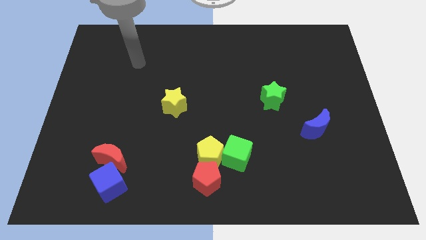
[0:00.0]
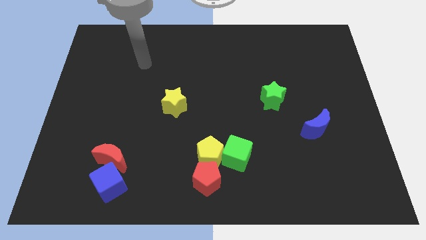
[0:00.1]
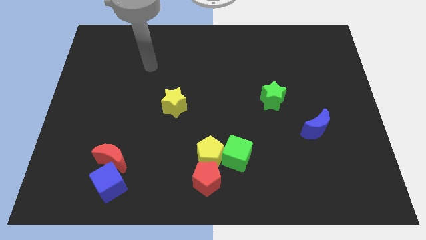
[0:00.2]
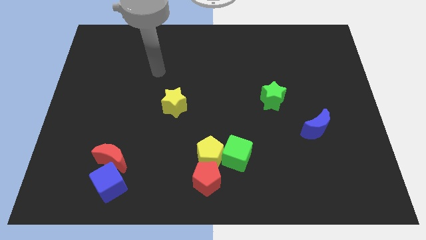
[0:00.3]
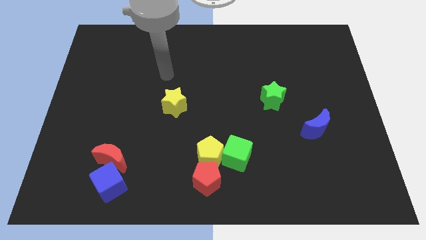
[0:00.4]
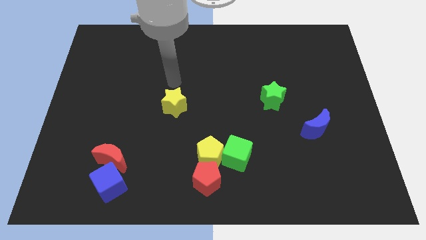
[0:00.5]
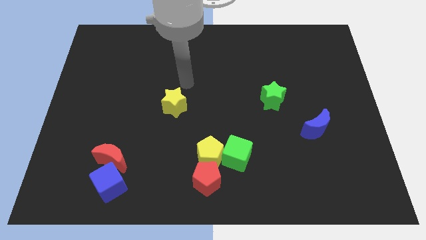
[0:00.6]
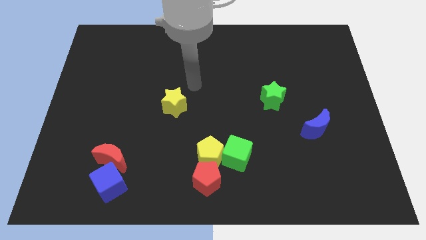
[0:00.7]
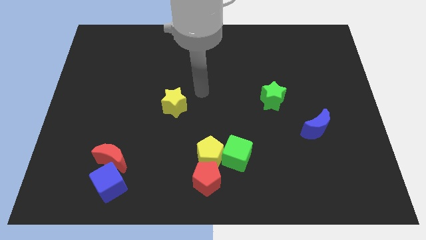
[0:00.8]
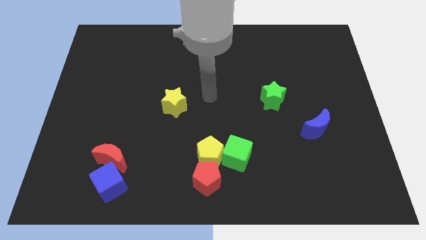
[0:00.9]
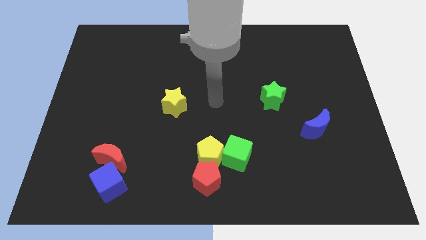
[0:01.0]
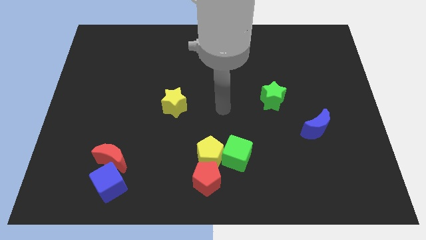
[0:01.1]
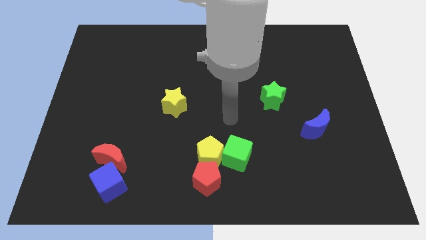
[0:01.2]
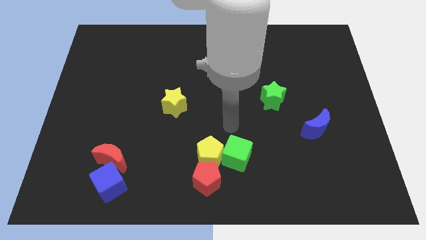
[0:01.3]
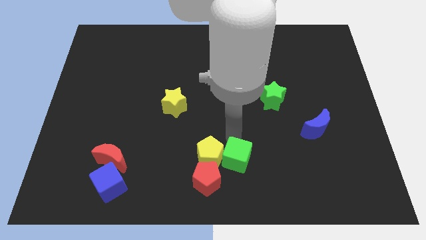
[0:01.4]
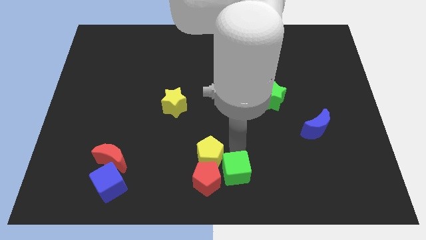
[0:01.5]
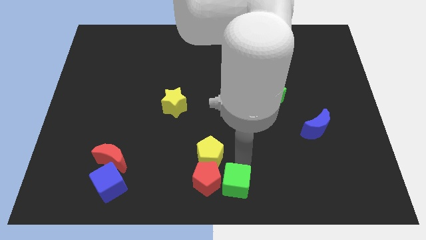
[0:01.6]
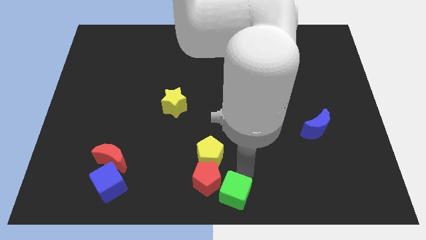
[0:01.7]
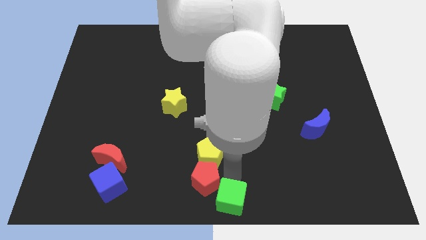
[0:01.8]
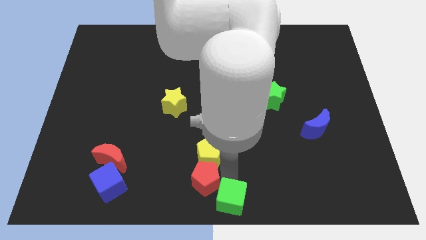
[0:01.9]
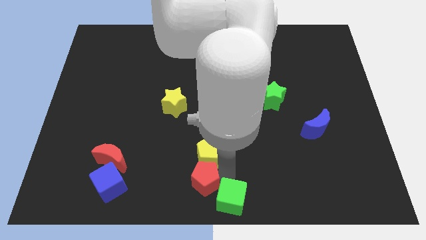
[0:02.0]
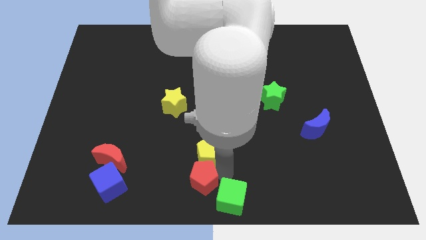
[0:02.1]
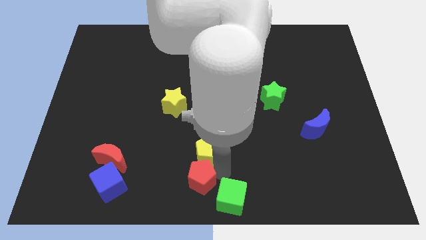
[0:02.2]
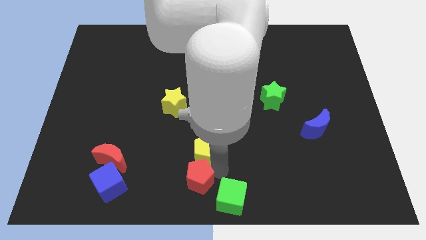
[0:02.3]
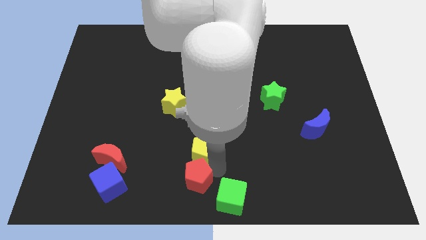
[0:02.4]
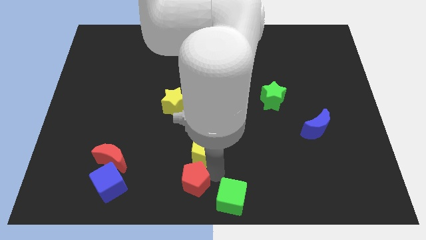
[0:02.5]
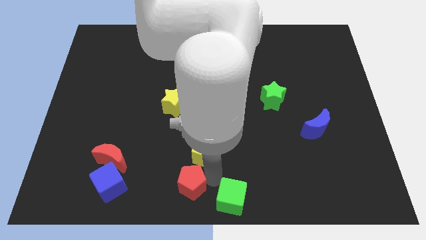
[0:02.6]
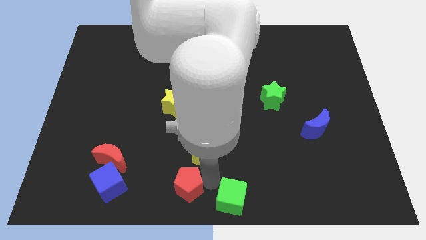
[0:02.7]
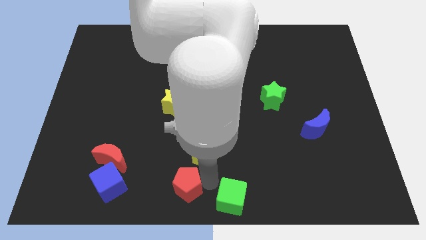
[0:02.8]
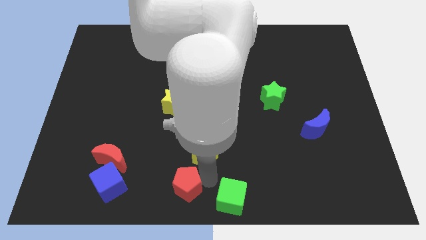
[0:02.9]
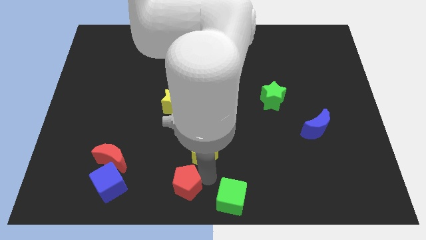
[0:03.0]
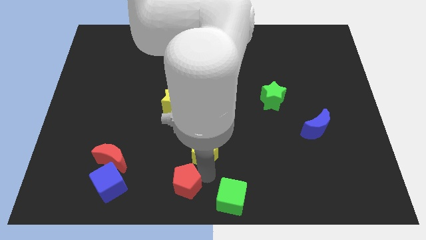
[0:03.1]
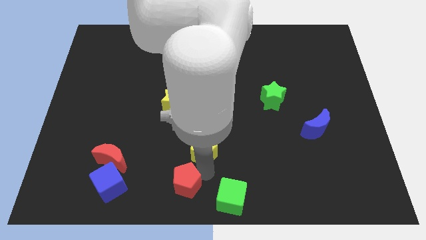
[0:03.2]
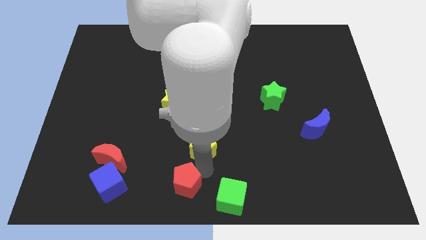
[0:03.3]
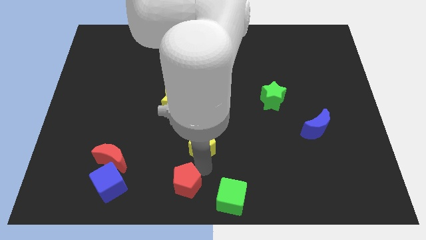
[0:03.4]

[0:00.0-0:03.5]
move the yellow pentagon away from the green cube and red pentagon

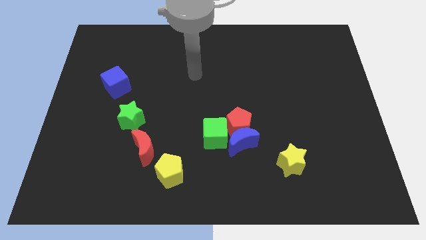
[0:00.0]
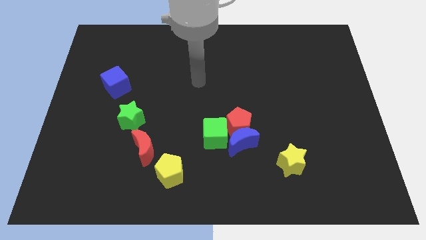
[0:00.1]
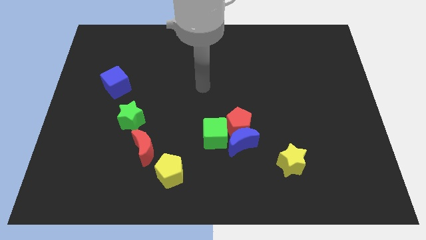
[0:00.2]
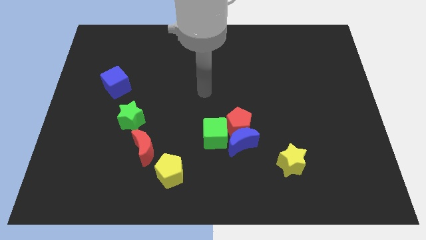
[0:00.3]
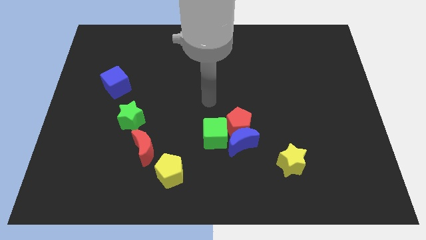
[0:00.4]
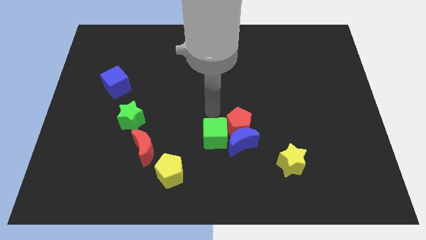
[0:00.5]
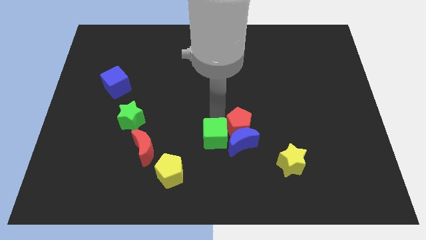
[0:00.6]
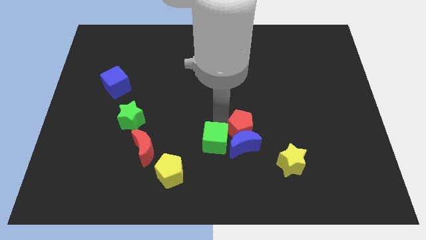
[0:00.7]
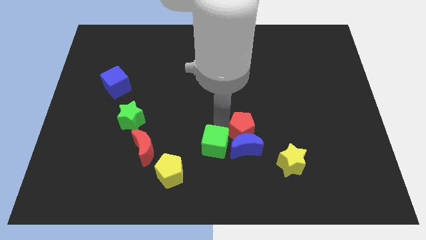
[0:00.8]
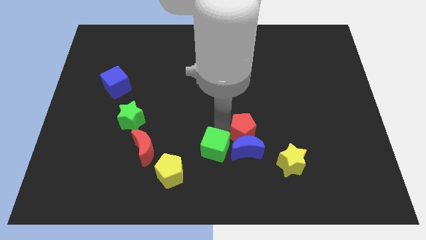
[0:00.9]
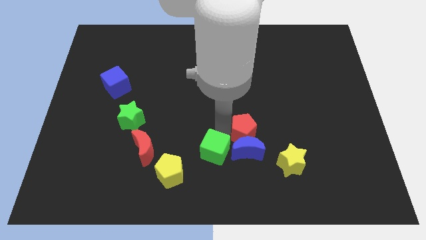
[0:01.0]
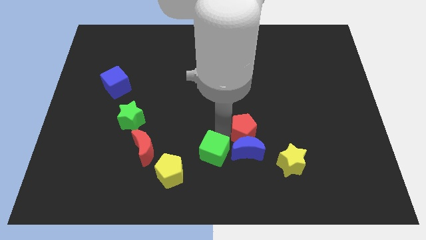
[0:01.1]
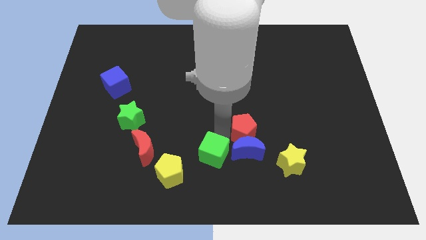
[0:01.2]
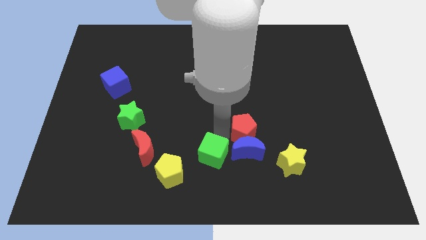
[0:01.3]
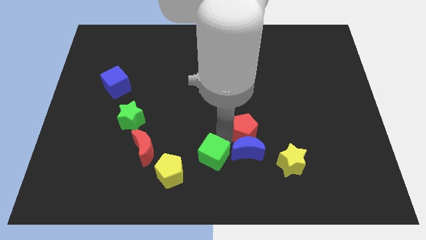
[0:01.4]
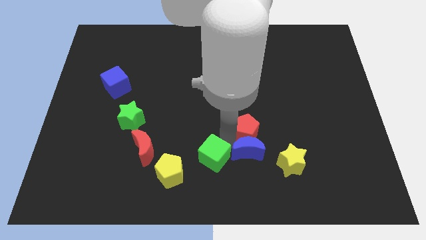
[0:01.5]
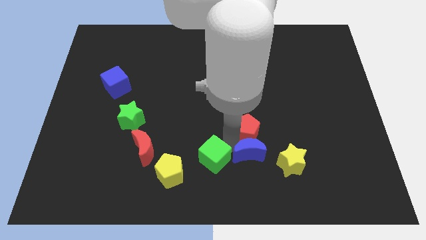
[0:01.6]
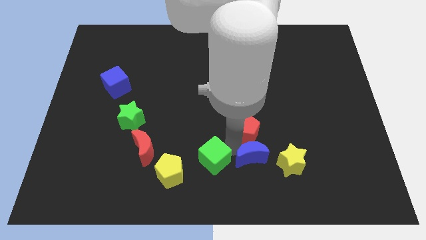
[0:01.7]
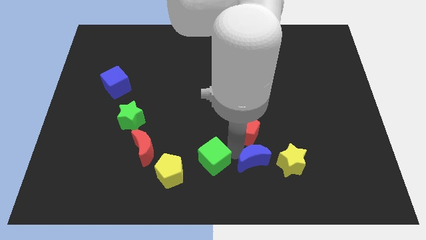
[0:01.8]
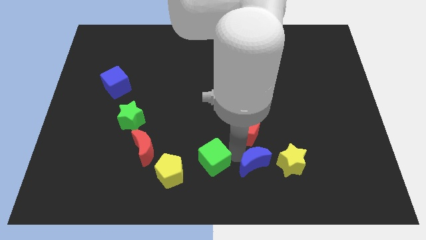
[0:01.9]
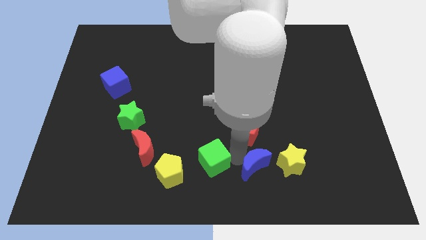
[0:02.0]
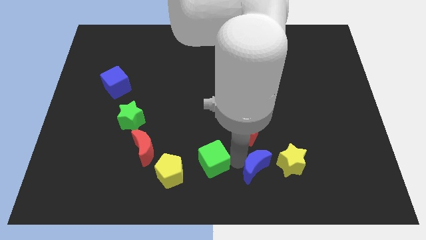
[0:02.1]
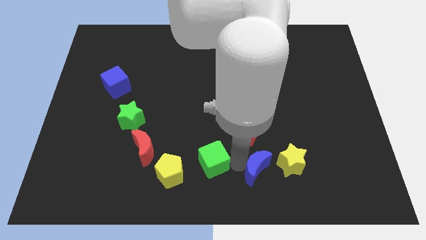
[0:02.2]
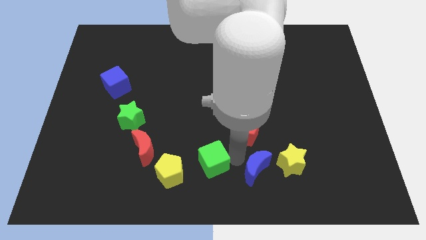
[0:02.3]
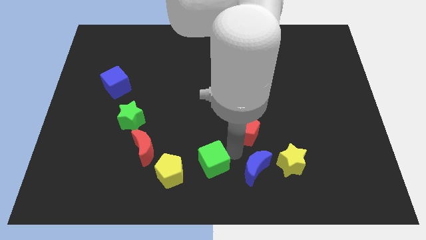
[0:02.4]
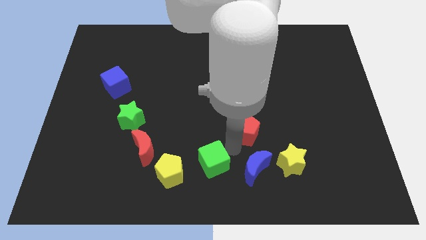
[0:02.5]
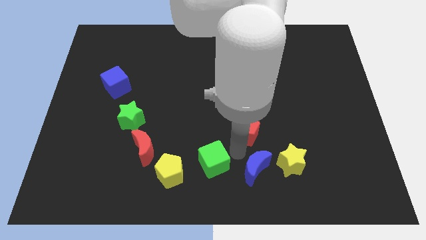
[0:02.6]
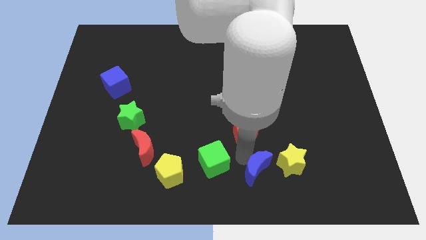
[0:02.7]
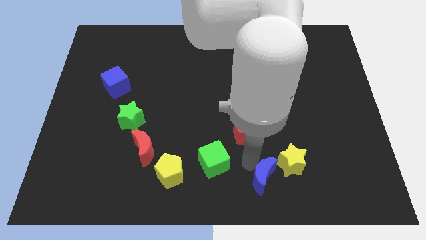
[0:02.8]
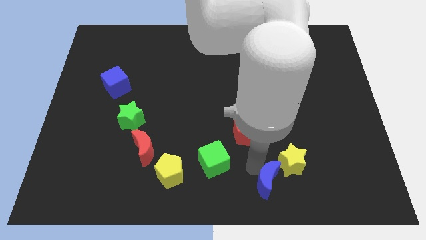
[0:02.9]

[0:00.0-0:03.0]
move the blue moon away from the red pentagon and green cube

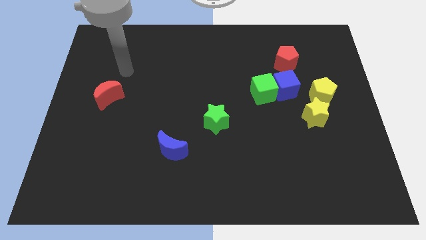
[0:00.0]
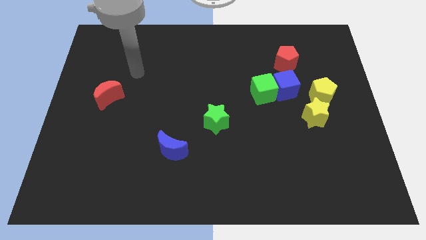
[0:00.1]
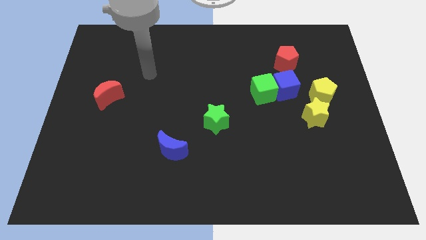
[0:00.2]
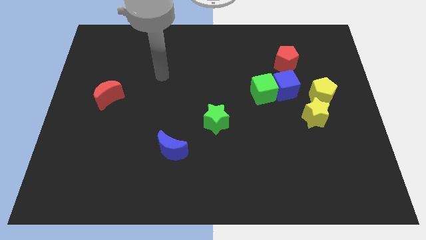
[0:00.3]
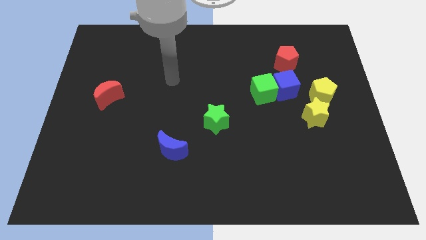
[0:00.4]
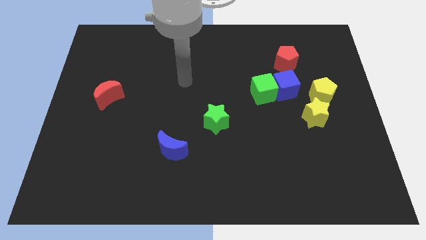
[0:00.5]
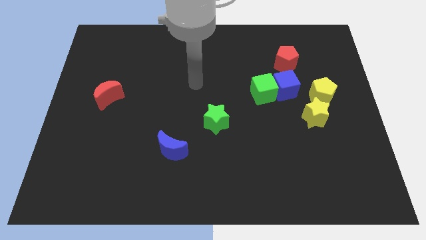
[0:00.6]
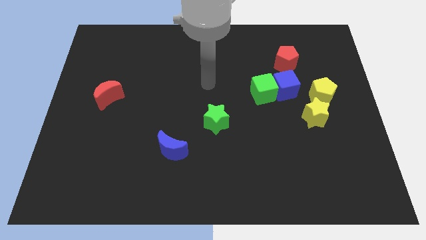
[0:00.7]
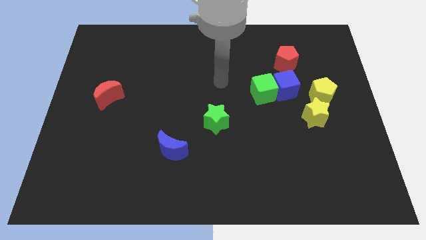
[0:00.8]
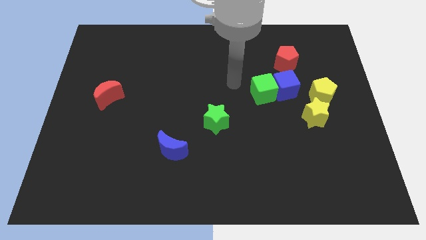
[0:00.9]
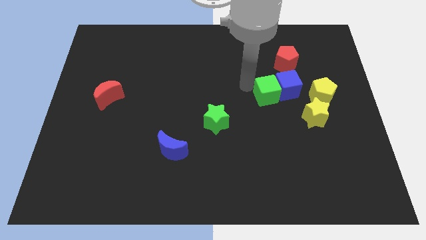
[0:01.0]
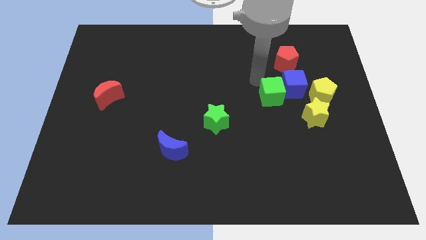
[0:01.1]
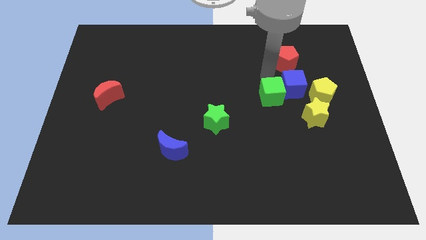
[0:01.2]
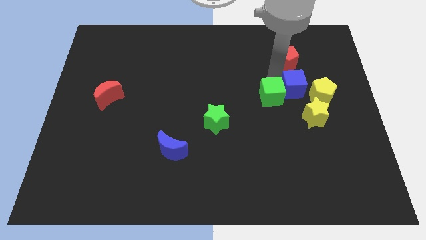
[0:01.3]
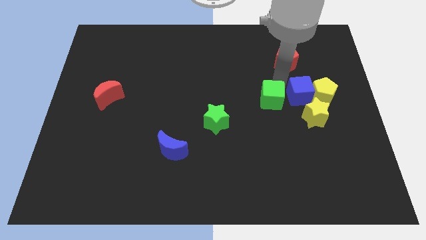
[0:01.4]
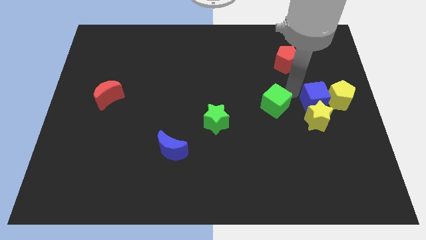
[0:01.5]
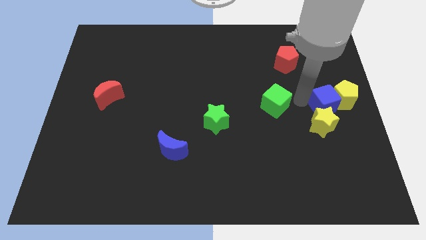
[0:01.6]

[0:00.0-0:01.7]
move the green cube away from the blue cube

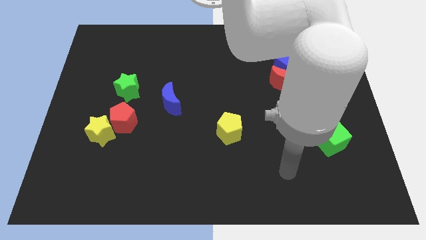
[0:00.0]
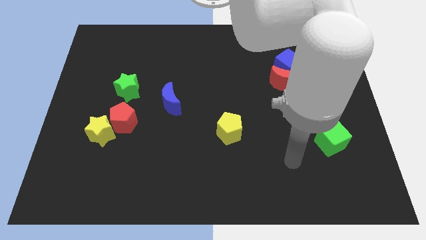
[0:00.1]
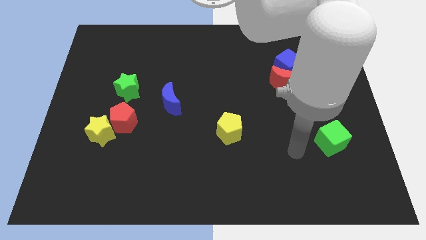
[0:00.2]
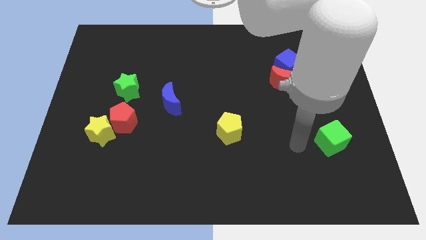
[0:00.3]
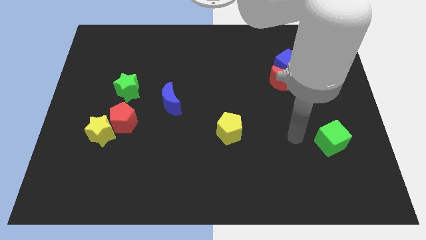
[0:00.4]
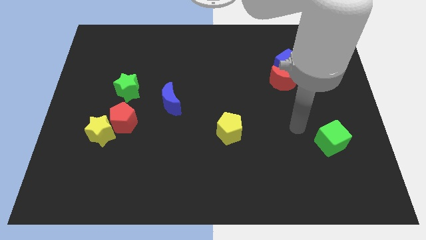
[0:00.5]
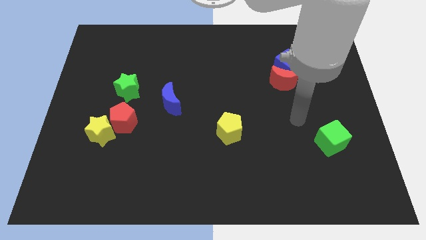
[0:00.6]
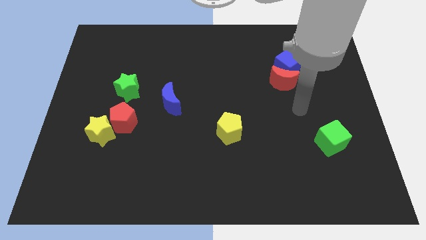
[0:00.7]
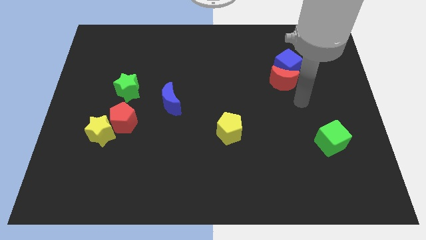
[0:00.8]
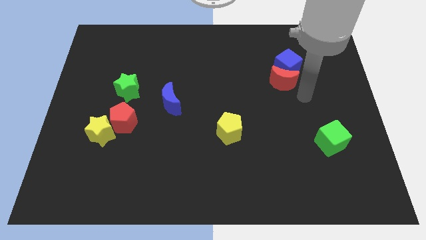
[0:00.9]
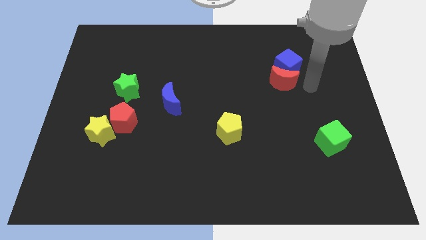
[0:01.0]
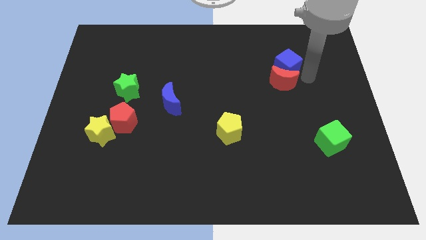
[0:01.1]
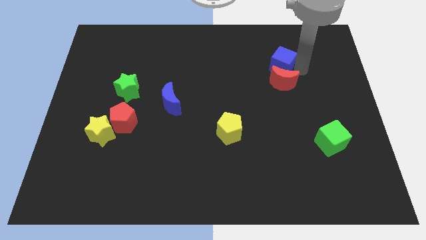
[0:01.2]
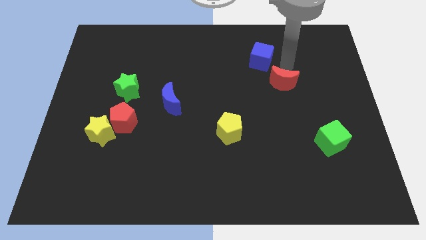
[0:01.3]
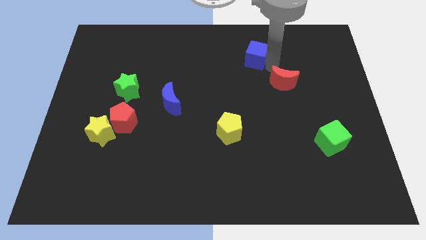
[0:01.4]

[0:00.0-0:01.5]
separate the red moon from the blue cube
